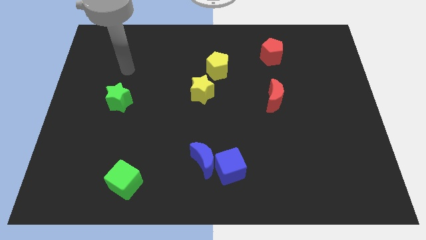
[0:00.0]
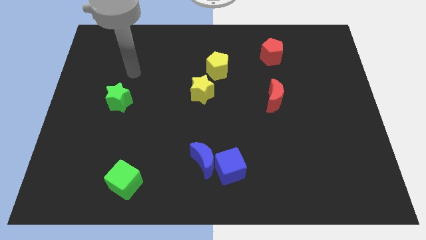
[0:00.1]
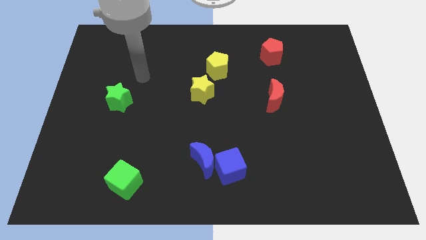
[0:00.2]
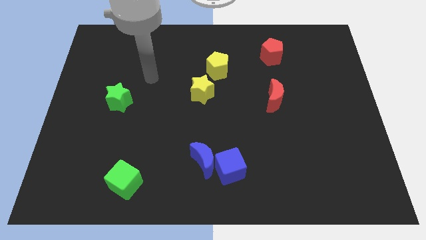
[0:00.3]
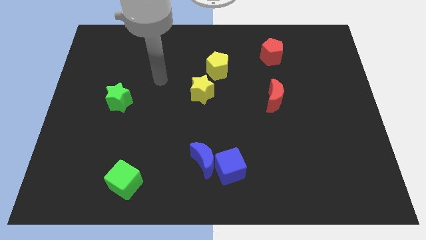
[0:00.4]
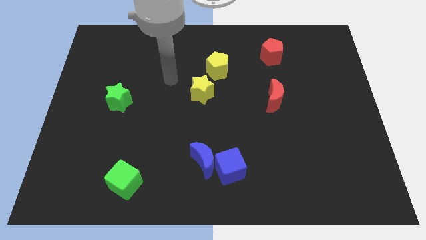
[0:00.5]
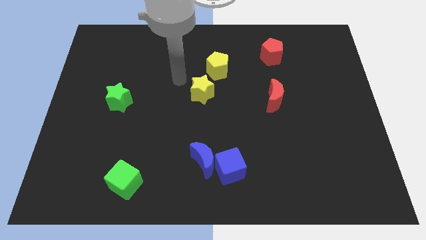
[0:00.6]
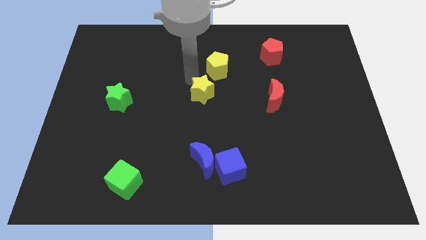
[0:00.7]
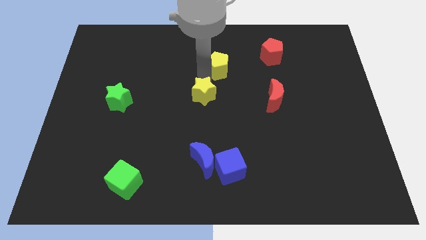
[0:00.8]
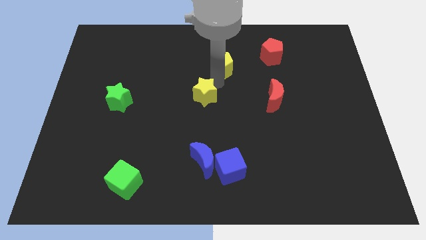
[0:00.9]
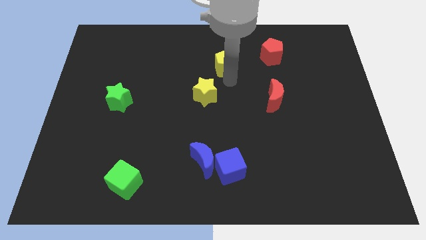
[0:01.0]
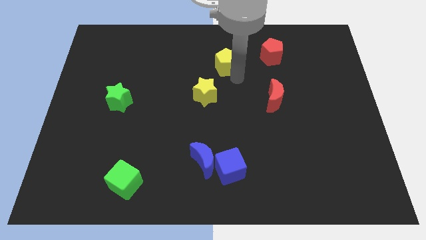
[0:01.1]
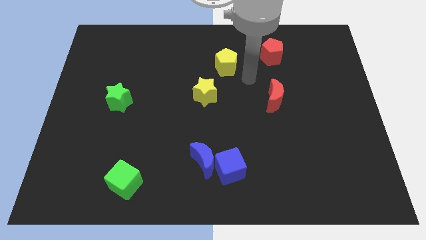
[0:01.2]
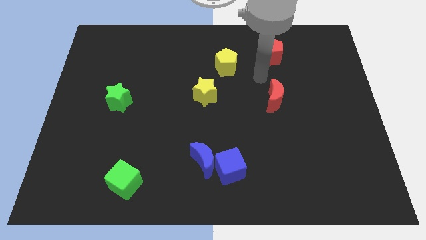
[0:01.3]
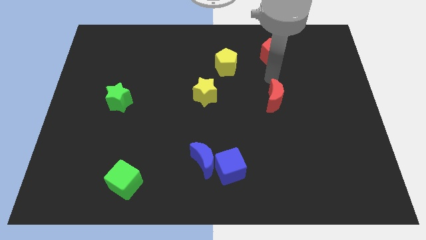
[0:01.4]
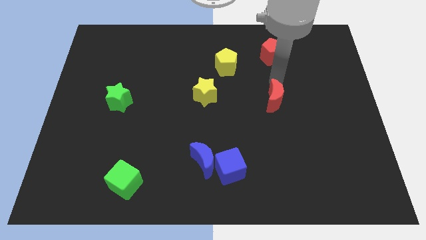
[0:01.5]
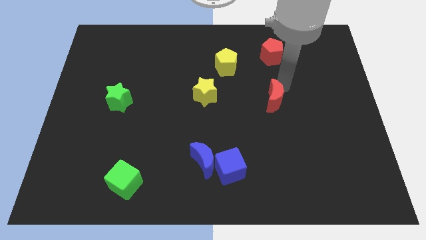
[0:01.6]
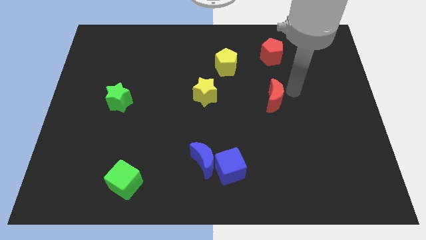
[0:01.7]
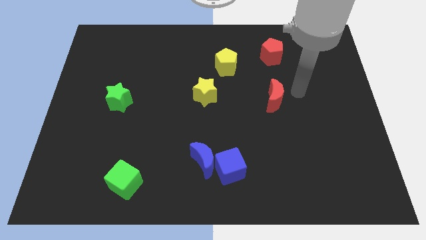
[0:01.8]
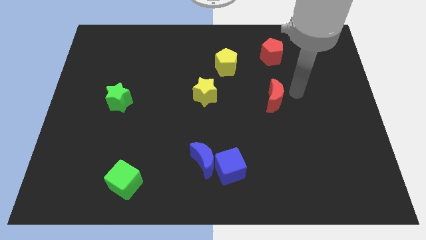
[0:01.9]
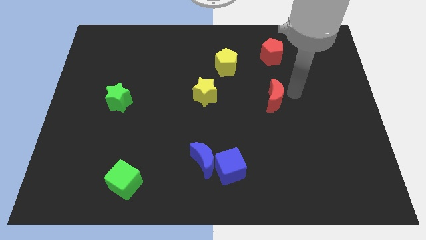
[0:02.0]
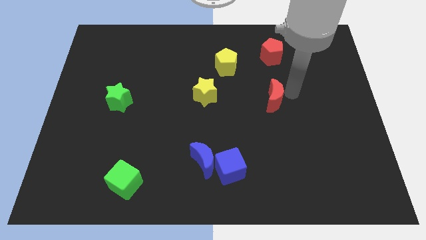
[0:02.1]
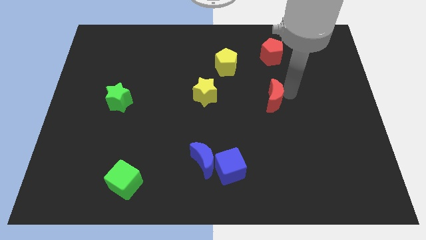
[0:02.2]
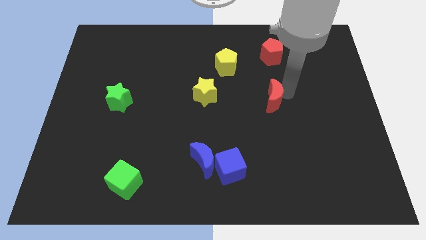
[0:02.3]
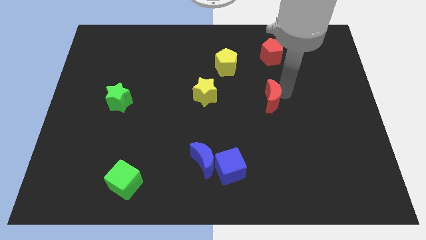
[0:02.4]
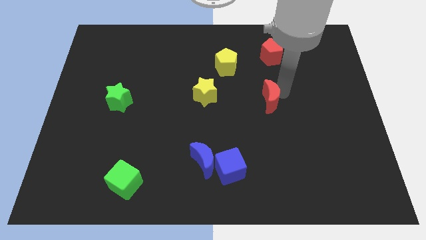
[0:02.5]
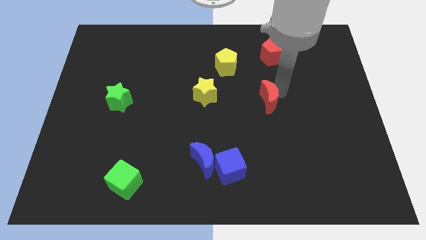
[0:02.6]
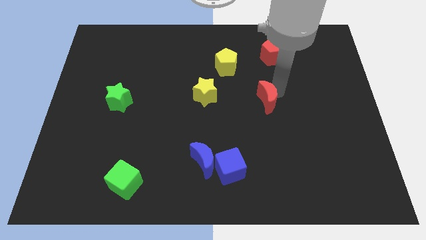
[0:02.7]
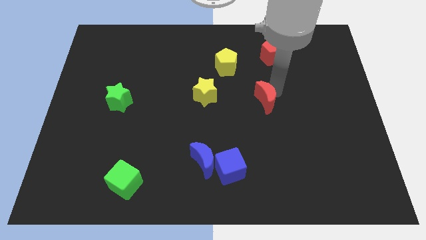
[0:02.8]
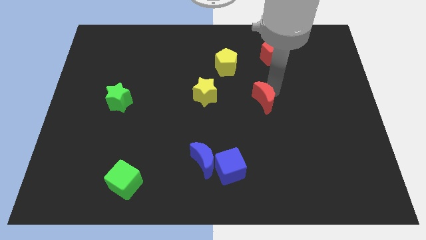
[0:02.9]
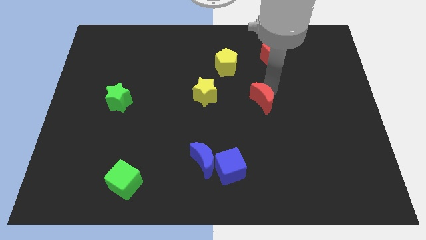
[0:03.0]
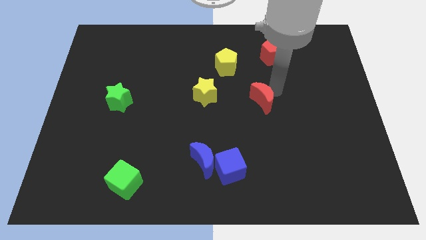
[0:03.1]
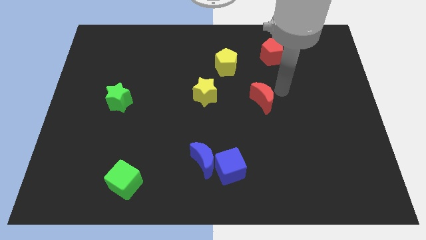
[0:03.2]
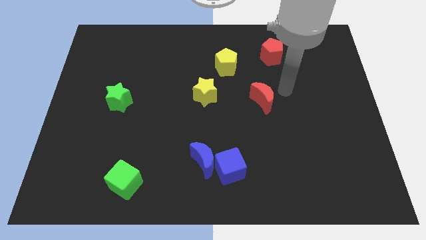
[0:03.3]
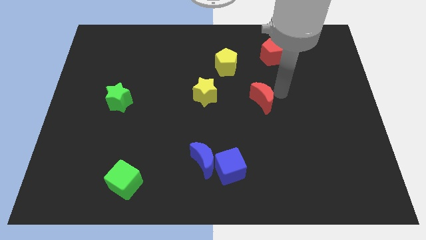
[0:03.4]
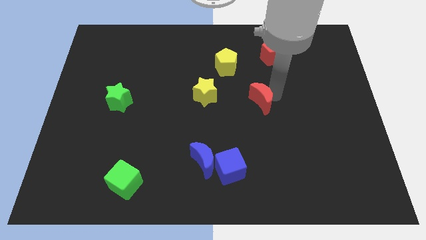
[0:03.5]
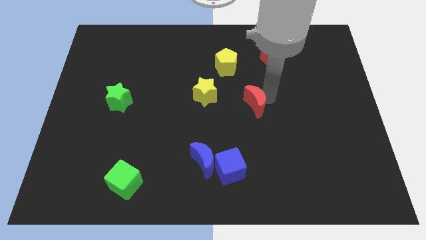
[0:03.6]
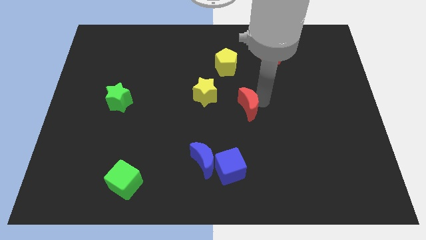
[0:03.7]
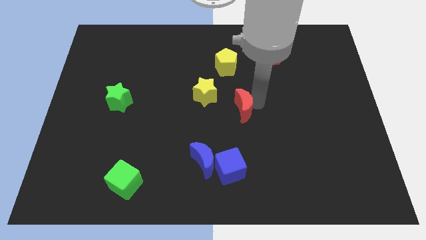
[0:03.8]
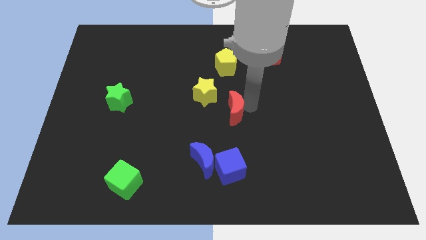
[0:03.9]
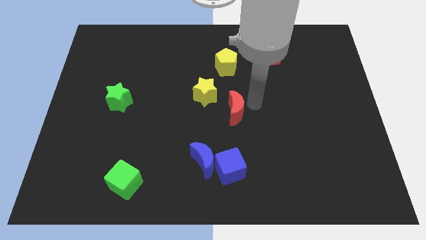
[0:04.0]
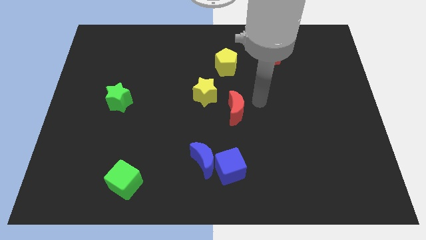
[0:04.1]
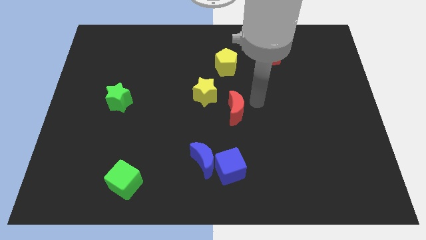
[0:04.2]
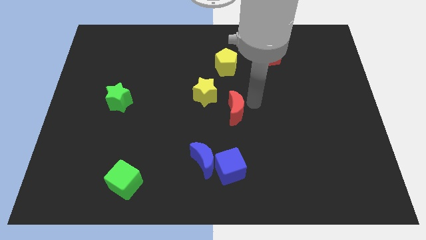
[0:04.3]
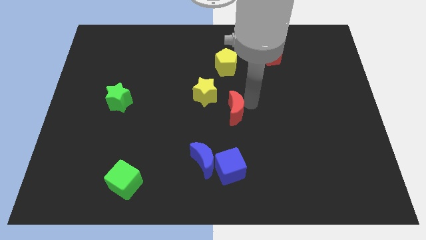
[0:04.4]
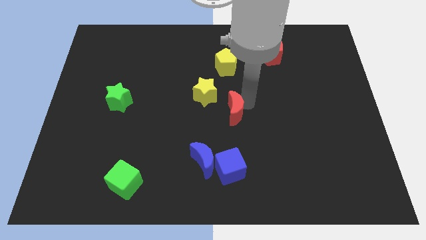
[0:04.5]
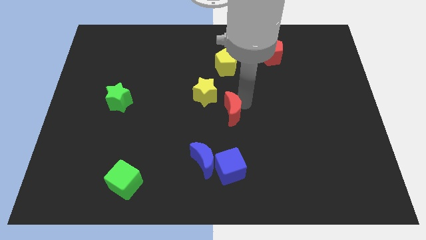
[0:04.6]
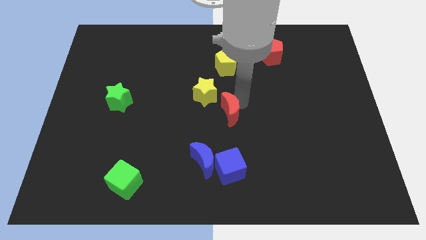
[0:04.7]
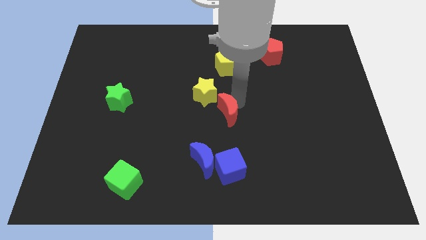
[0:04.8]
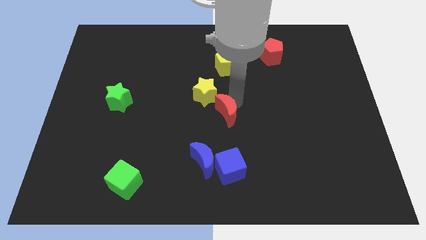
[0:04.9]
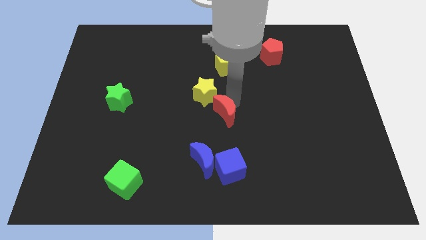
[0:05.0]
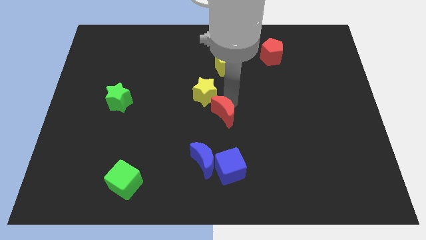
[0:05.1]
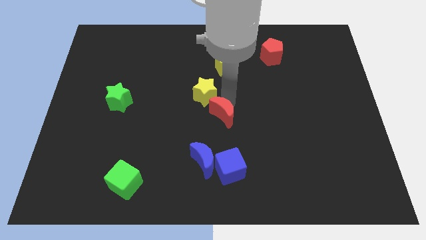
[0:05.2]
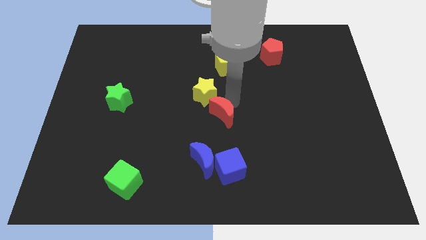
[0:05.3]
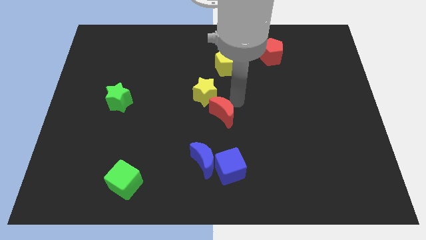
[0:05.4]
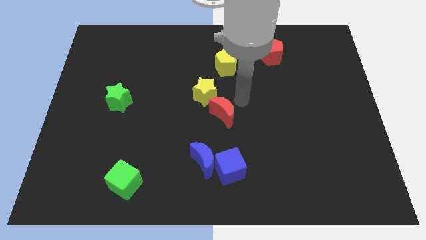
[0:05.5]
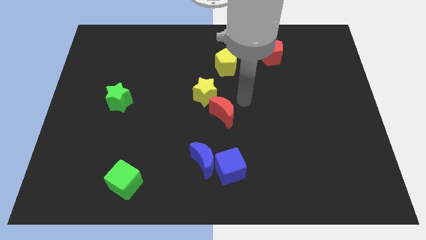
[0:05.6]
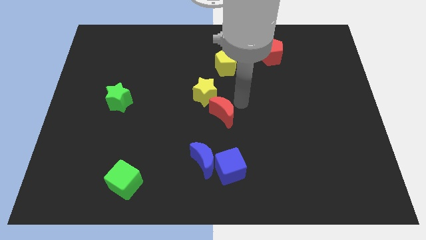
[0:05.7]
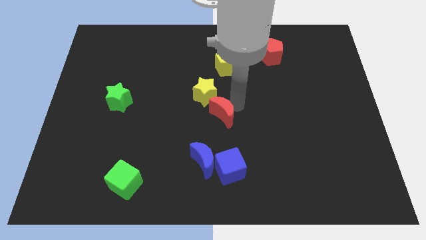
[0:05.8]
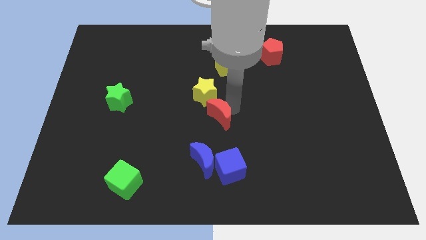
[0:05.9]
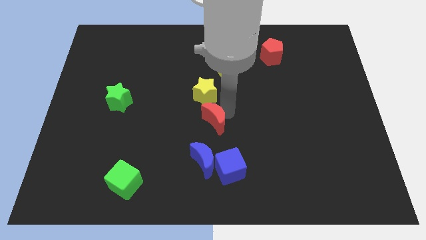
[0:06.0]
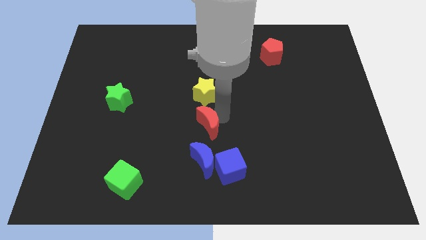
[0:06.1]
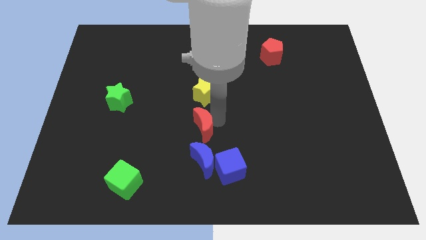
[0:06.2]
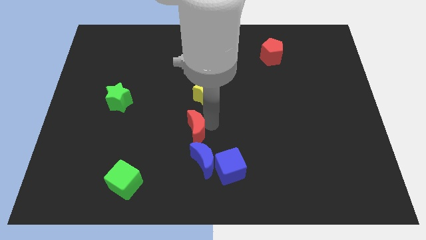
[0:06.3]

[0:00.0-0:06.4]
push the red moon to the top left side of the blue moon

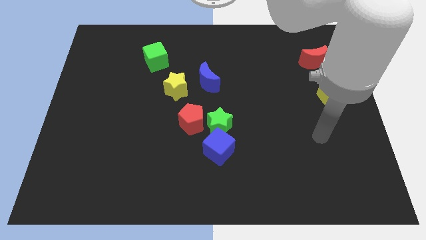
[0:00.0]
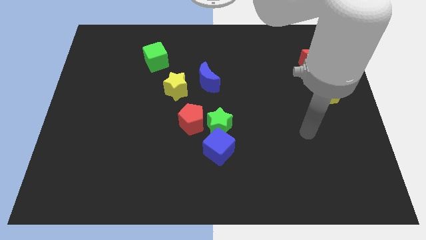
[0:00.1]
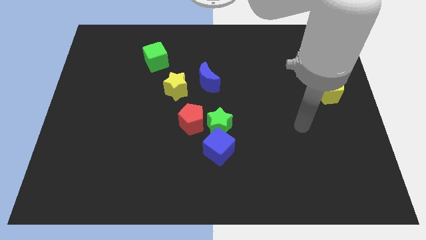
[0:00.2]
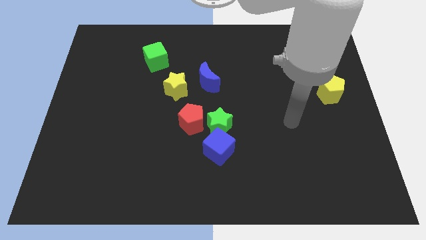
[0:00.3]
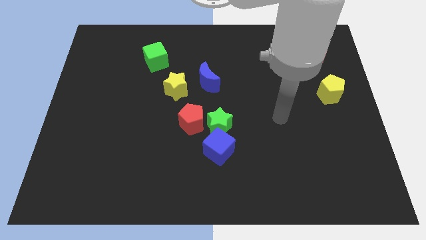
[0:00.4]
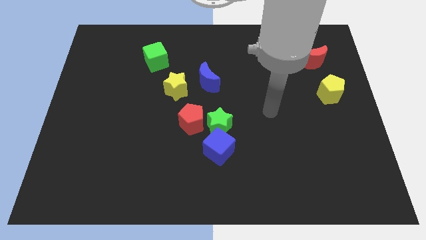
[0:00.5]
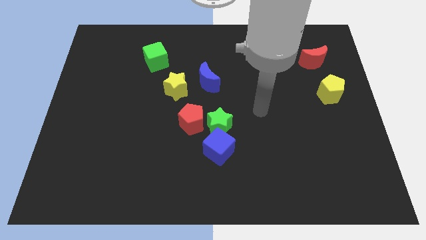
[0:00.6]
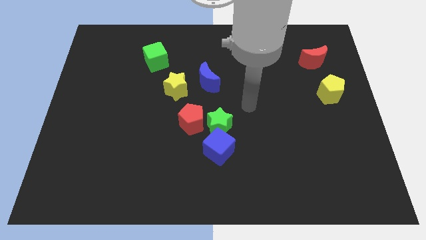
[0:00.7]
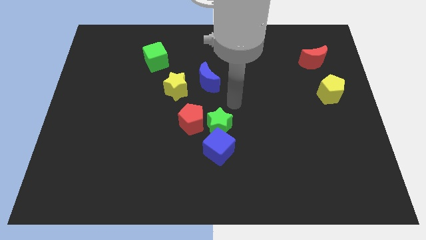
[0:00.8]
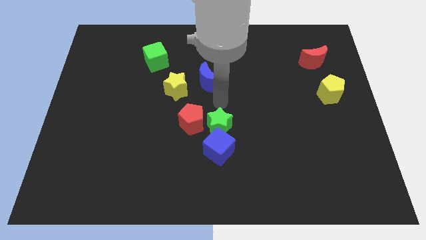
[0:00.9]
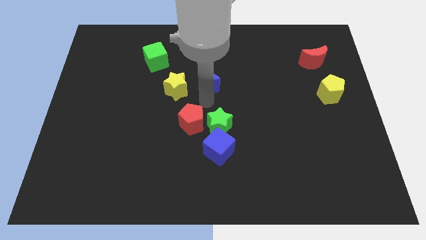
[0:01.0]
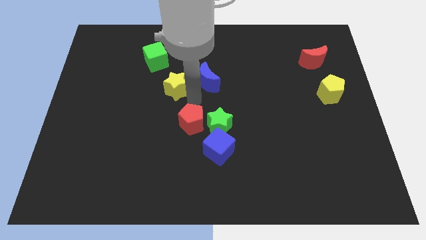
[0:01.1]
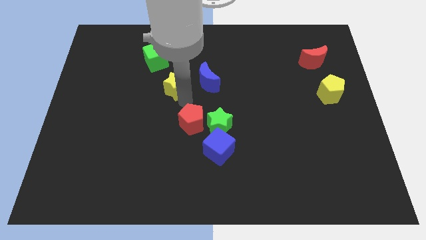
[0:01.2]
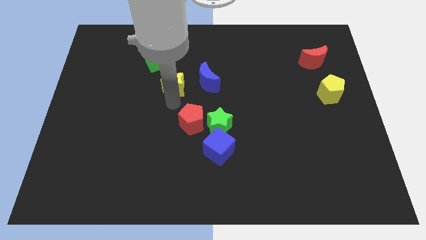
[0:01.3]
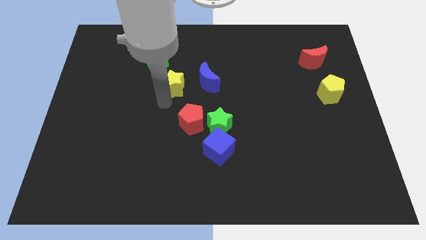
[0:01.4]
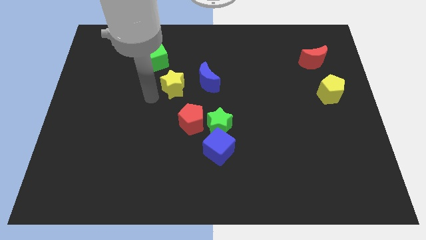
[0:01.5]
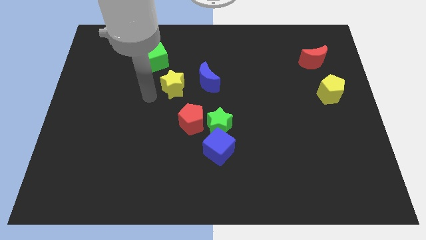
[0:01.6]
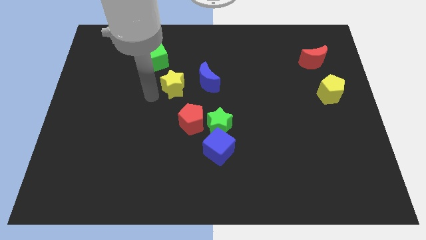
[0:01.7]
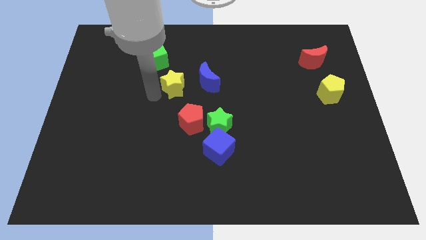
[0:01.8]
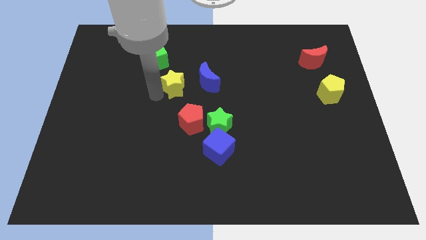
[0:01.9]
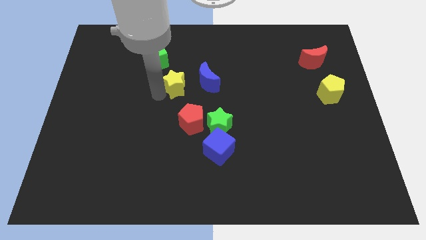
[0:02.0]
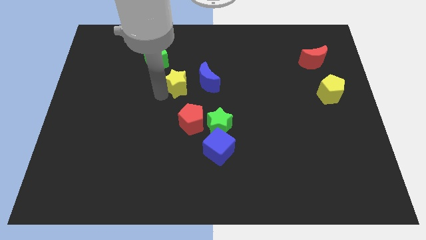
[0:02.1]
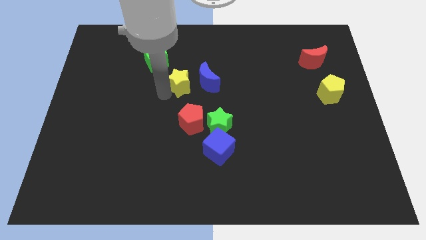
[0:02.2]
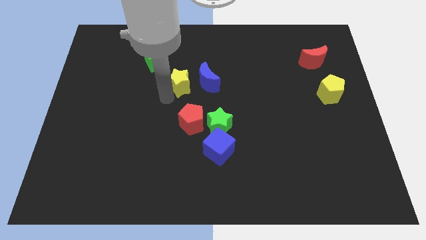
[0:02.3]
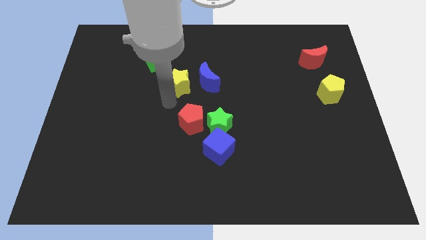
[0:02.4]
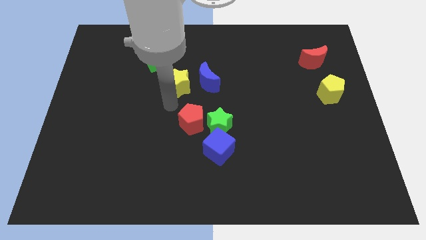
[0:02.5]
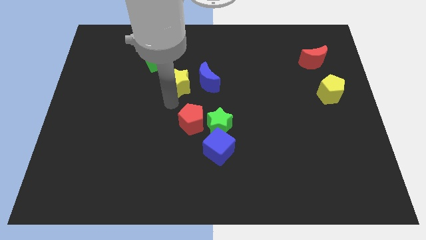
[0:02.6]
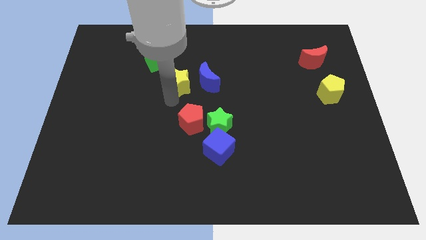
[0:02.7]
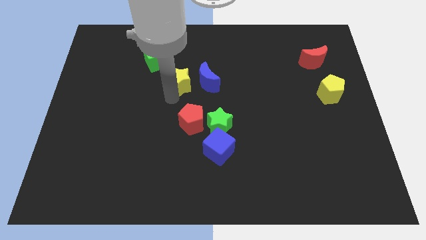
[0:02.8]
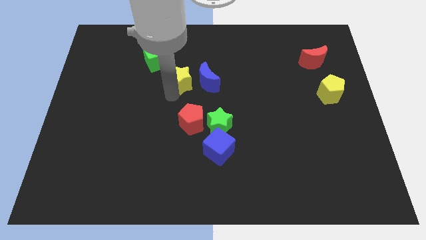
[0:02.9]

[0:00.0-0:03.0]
push the yellow star to the top left side of the blue moon
